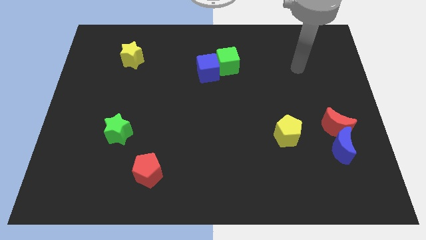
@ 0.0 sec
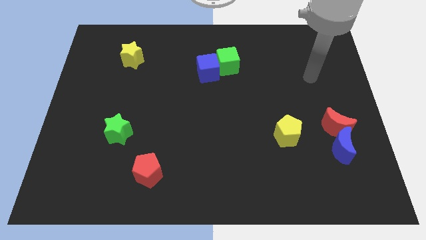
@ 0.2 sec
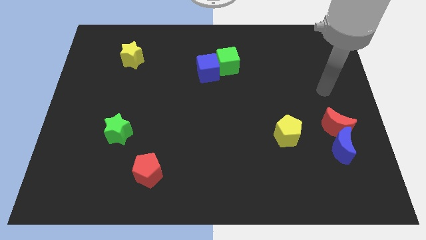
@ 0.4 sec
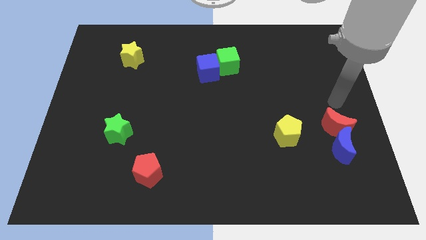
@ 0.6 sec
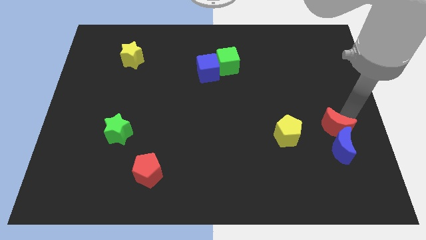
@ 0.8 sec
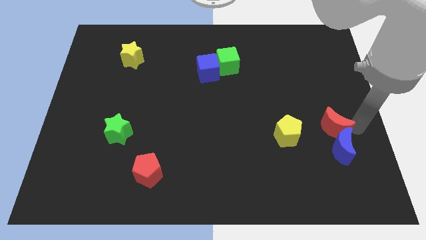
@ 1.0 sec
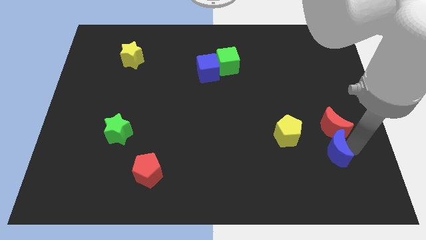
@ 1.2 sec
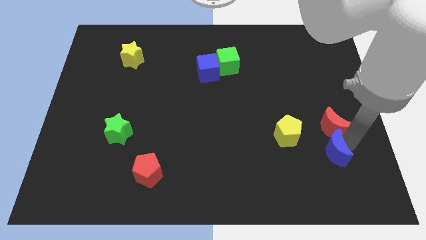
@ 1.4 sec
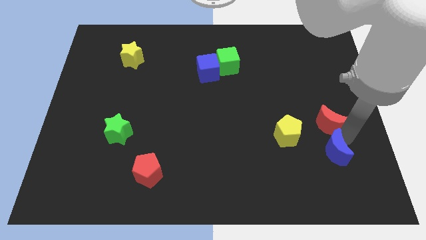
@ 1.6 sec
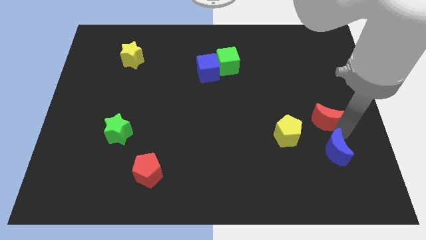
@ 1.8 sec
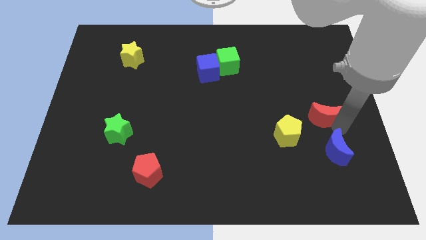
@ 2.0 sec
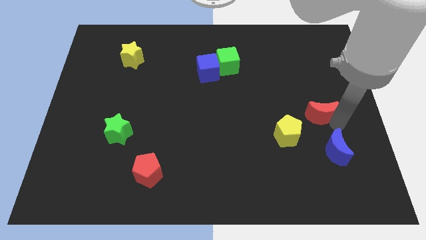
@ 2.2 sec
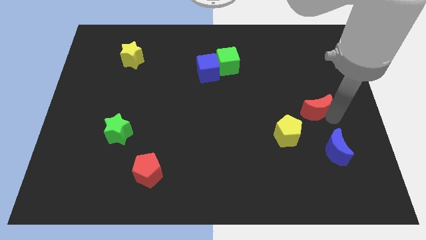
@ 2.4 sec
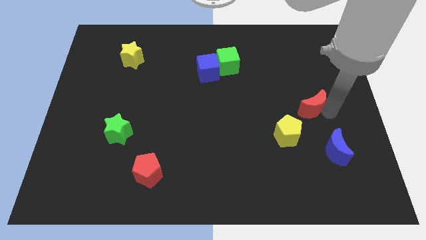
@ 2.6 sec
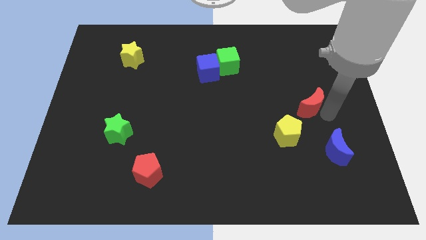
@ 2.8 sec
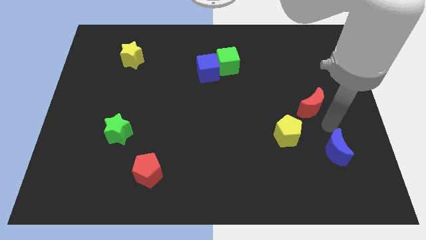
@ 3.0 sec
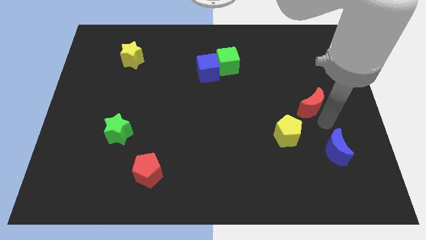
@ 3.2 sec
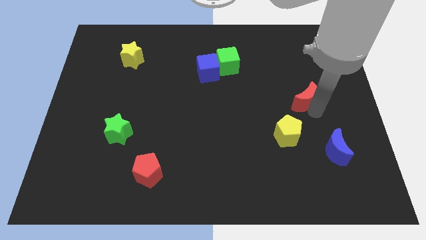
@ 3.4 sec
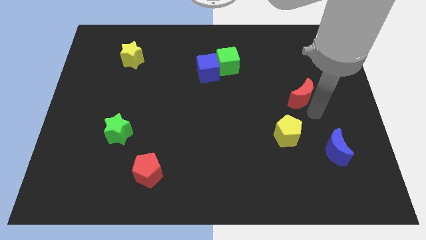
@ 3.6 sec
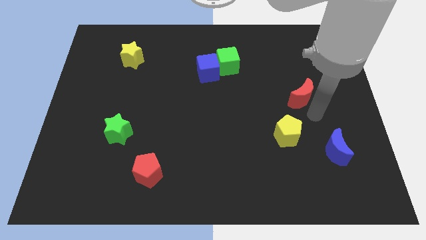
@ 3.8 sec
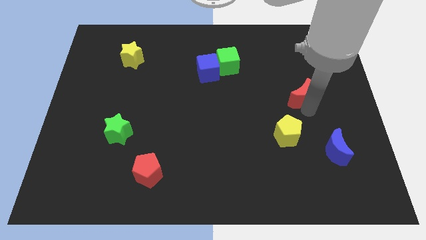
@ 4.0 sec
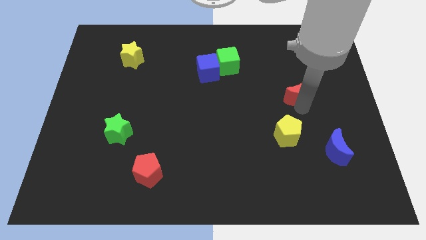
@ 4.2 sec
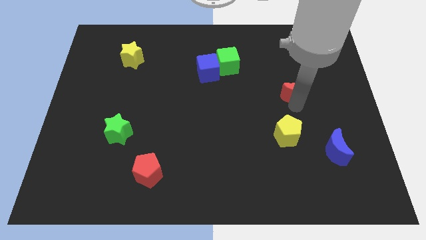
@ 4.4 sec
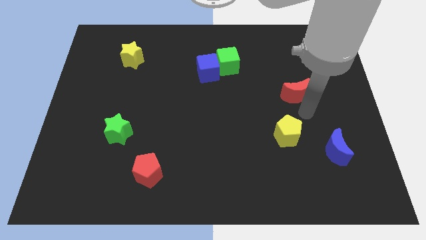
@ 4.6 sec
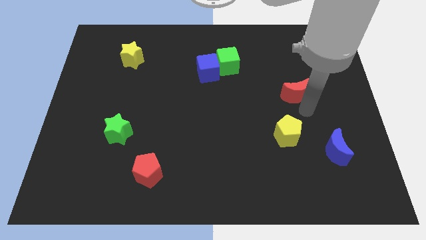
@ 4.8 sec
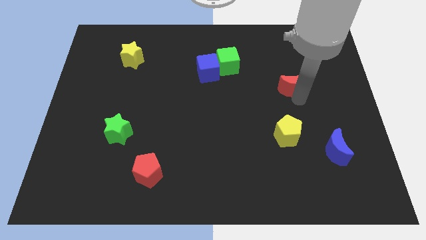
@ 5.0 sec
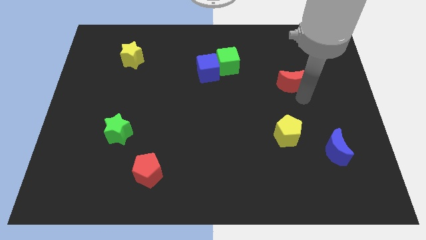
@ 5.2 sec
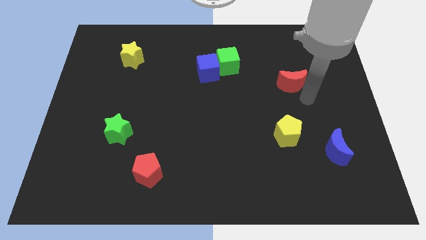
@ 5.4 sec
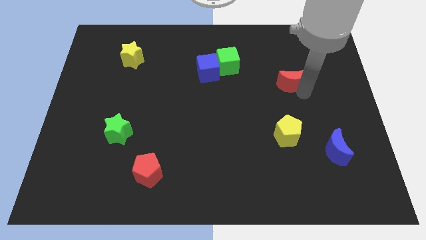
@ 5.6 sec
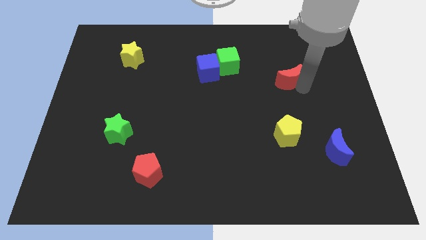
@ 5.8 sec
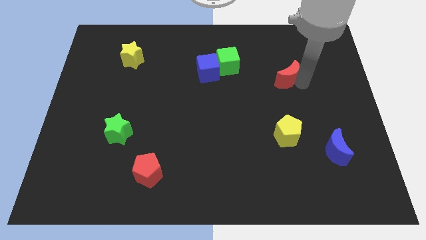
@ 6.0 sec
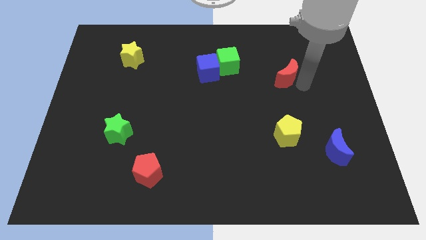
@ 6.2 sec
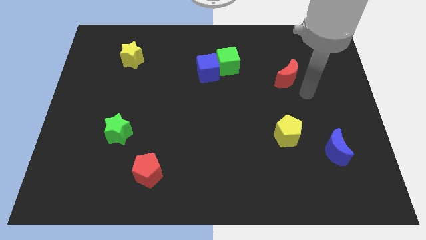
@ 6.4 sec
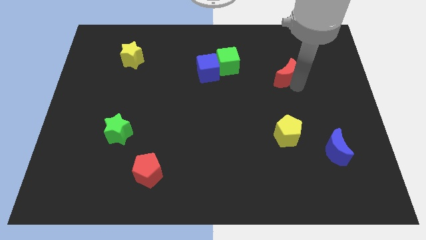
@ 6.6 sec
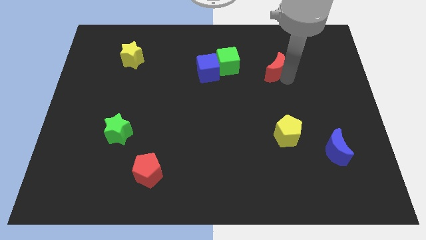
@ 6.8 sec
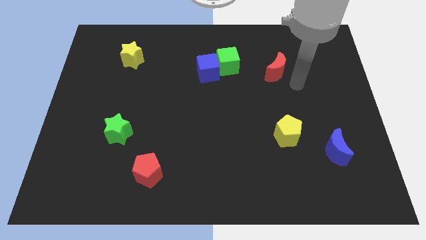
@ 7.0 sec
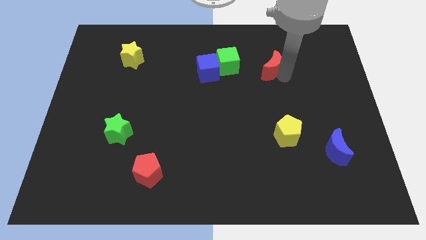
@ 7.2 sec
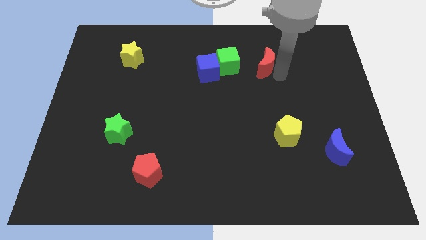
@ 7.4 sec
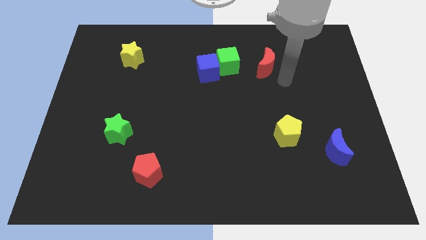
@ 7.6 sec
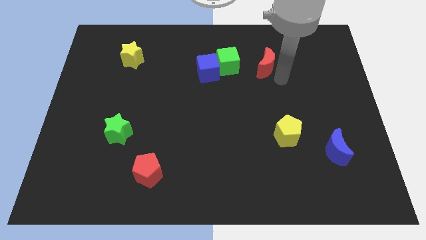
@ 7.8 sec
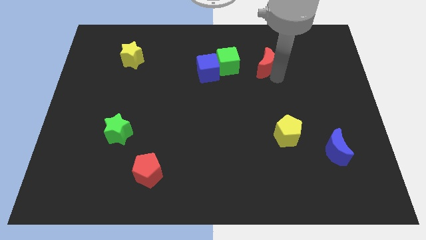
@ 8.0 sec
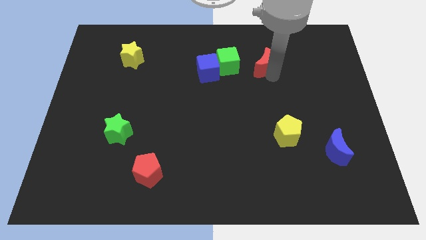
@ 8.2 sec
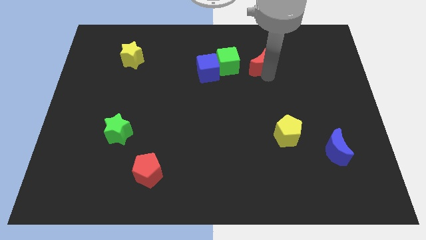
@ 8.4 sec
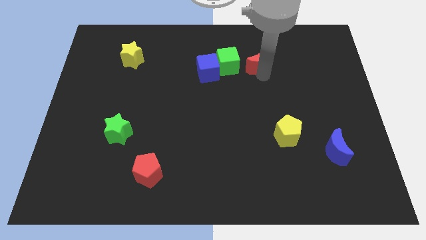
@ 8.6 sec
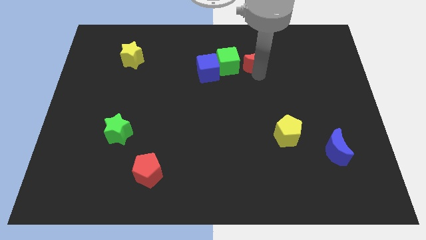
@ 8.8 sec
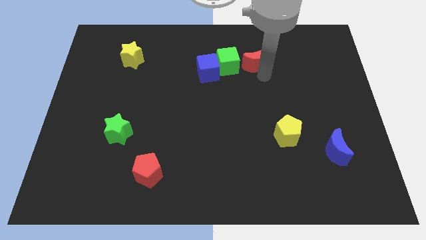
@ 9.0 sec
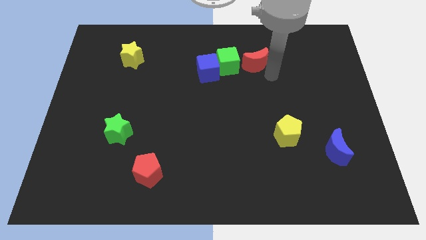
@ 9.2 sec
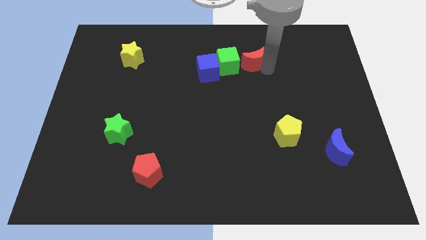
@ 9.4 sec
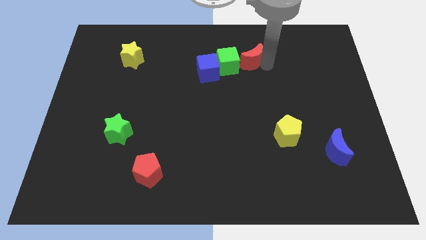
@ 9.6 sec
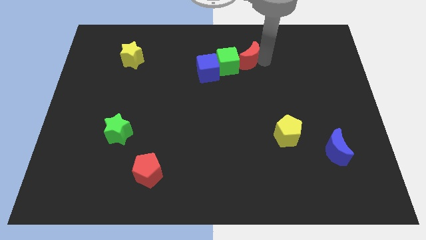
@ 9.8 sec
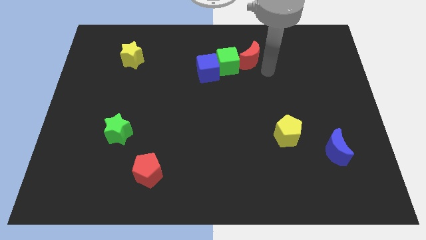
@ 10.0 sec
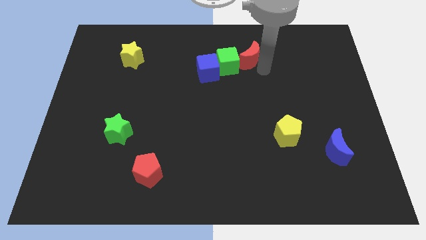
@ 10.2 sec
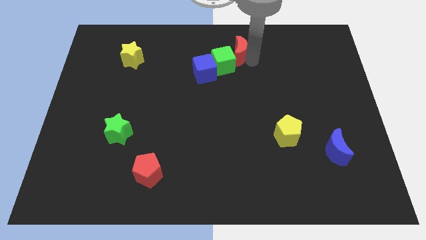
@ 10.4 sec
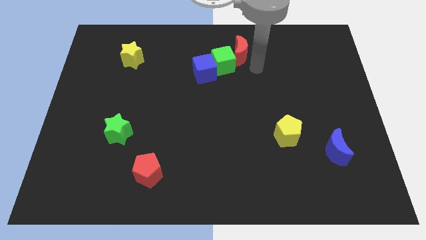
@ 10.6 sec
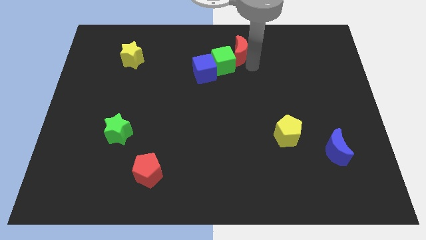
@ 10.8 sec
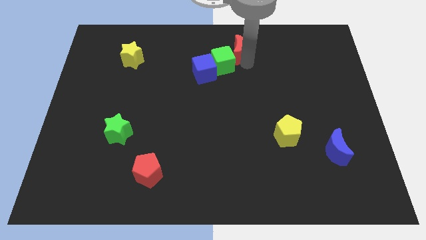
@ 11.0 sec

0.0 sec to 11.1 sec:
slide the red moon to the towards your base

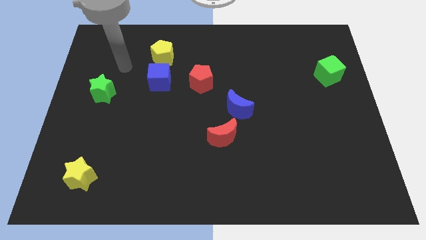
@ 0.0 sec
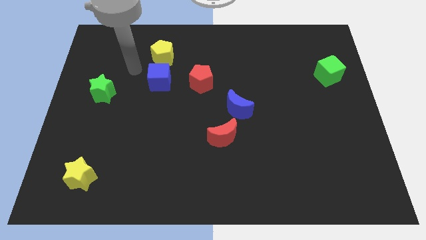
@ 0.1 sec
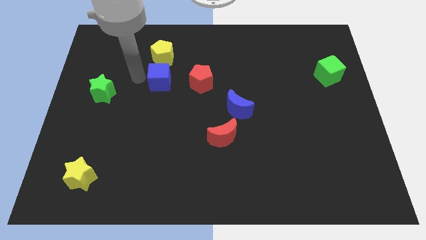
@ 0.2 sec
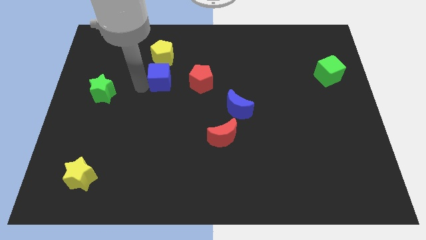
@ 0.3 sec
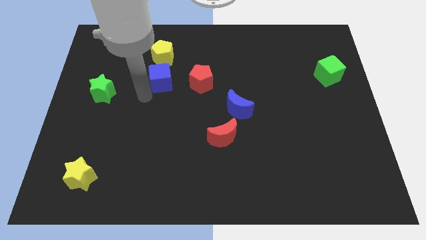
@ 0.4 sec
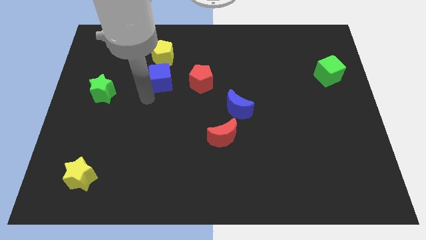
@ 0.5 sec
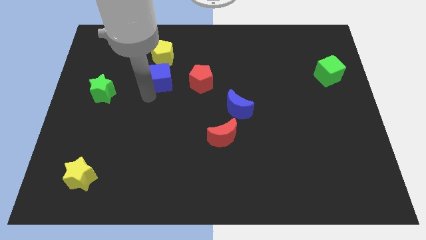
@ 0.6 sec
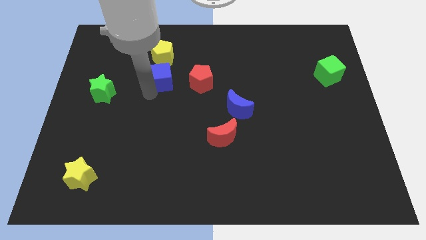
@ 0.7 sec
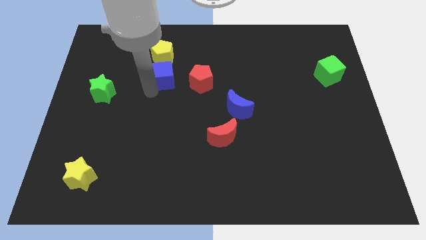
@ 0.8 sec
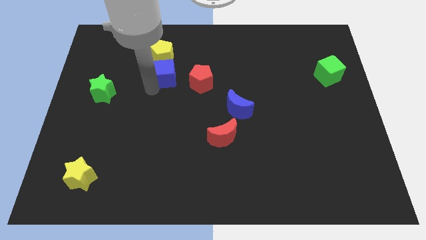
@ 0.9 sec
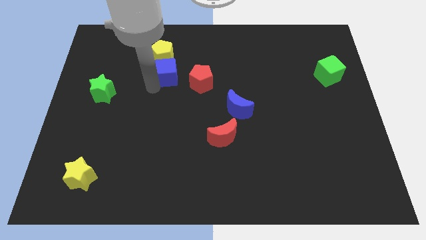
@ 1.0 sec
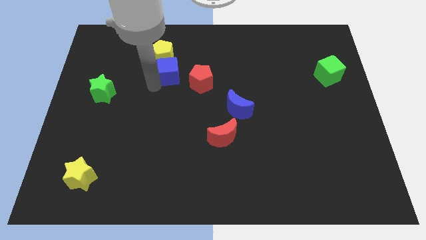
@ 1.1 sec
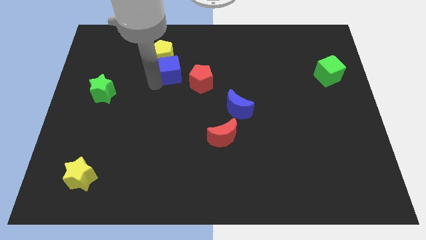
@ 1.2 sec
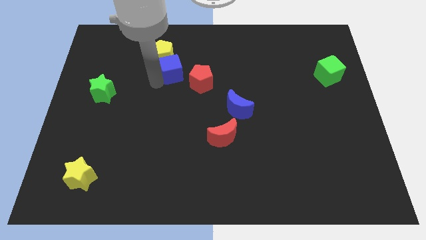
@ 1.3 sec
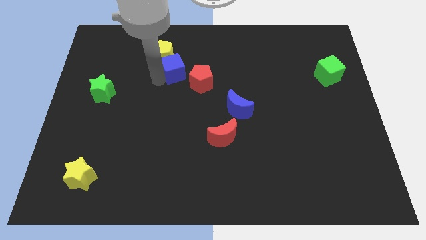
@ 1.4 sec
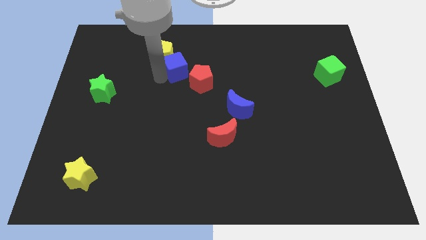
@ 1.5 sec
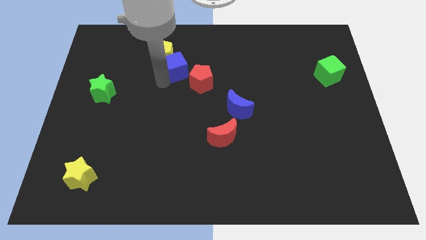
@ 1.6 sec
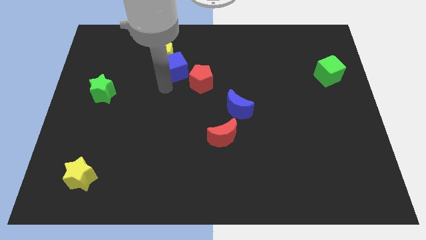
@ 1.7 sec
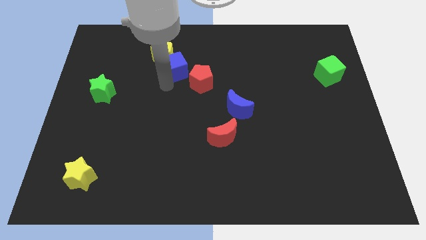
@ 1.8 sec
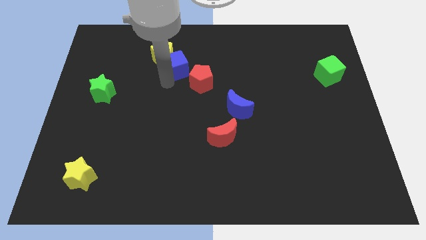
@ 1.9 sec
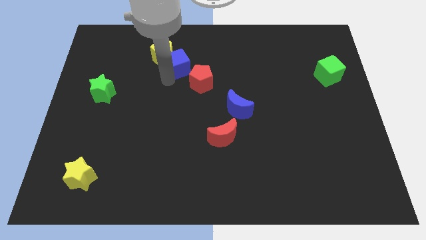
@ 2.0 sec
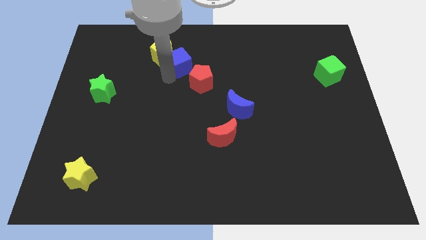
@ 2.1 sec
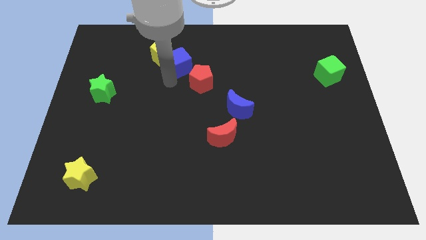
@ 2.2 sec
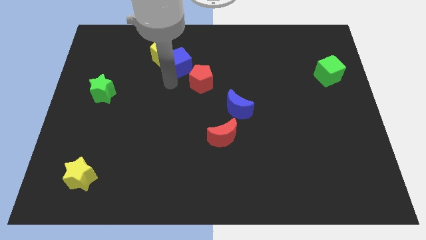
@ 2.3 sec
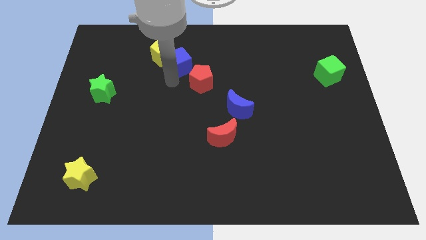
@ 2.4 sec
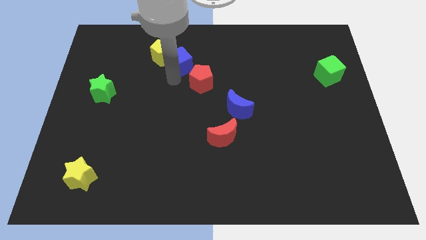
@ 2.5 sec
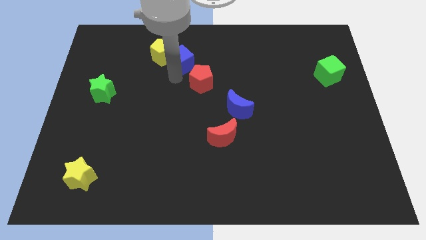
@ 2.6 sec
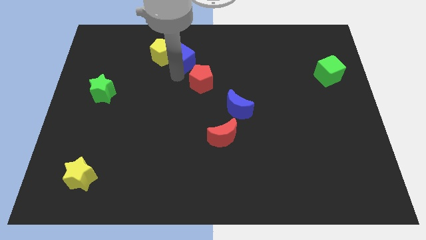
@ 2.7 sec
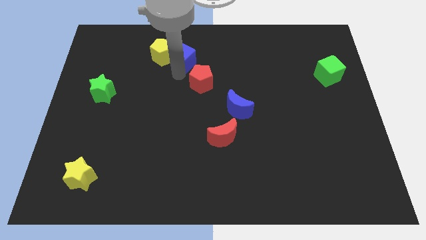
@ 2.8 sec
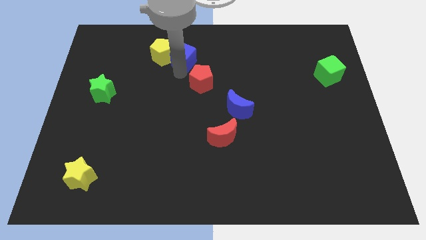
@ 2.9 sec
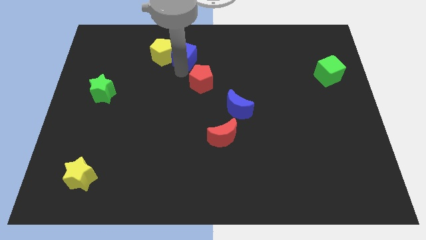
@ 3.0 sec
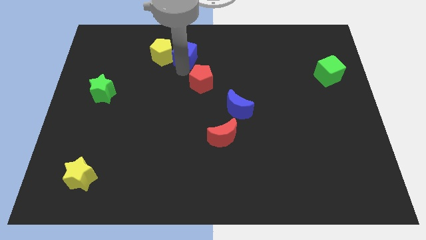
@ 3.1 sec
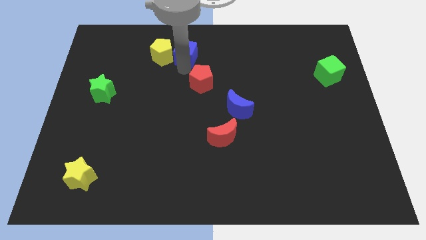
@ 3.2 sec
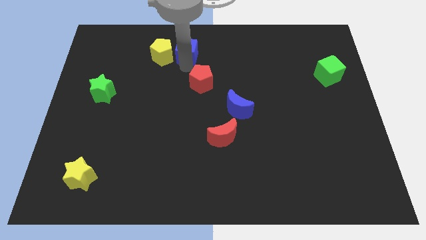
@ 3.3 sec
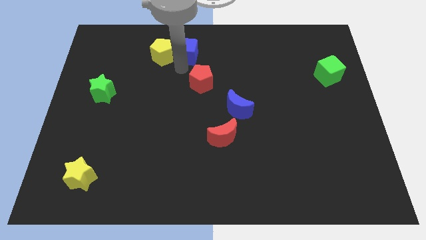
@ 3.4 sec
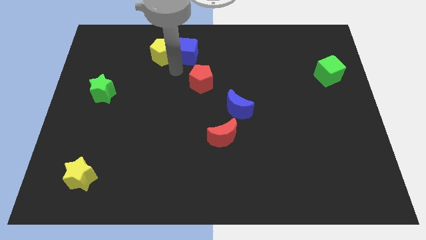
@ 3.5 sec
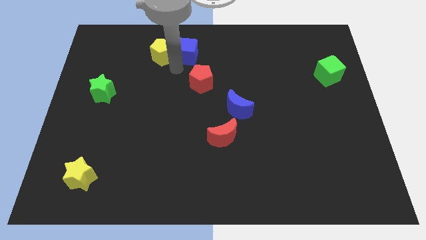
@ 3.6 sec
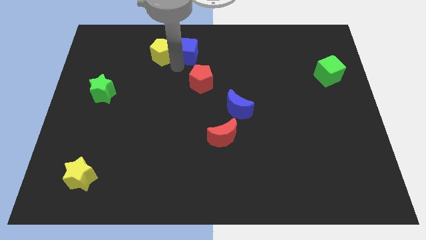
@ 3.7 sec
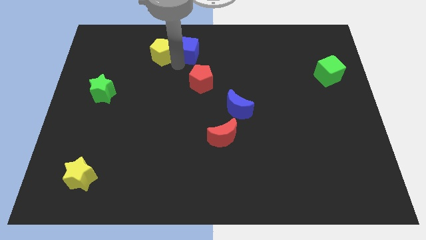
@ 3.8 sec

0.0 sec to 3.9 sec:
put the blue cube to the towards your base
